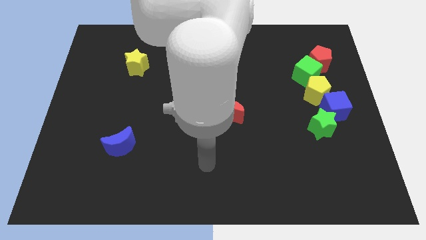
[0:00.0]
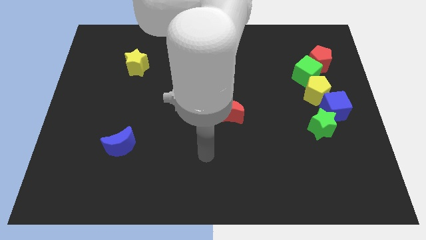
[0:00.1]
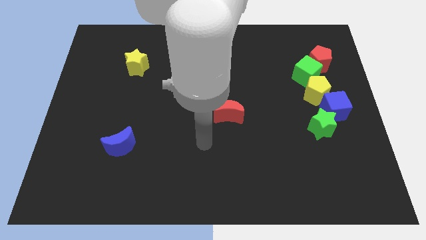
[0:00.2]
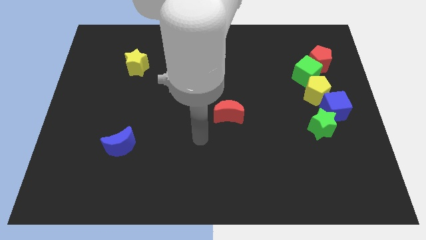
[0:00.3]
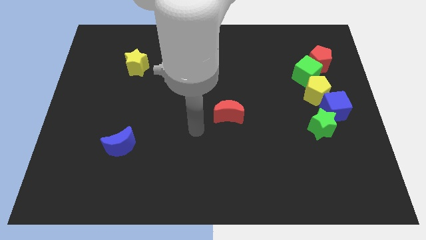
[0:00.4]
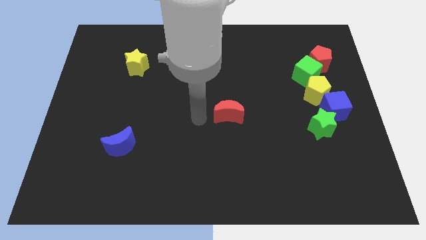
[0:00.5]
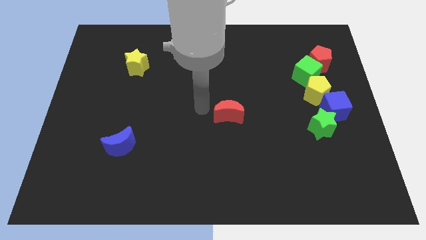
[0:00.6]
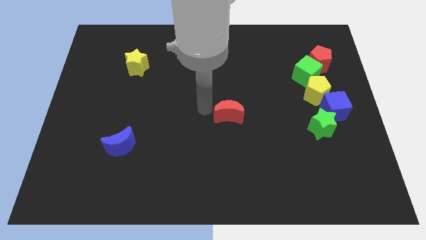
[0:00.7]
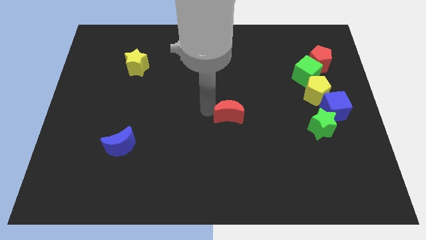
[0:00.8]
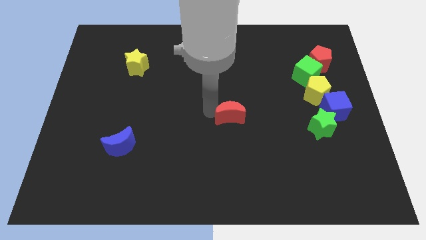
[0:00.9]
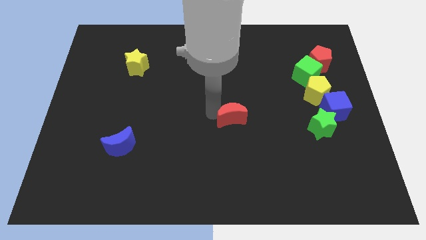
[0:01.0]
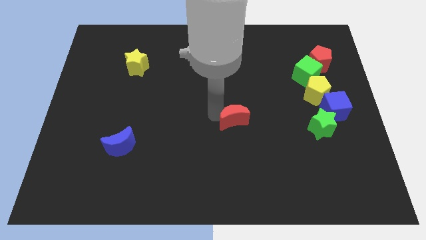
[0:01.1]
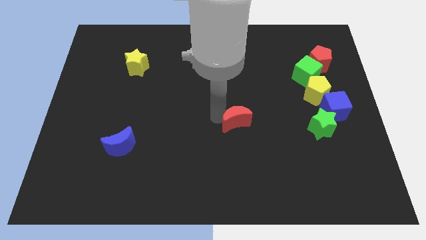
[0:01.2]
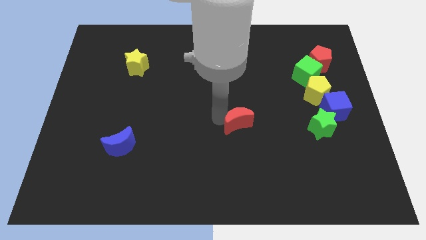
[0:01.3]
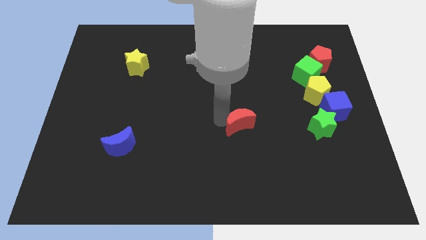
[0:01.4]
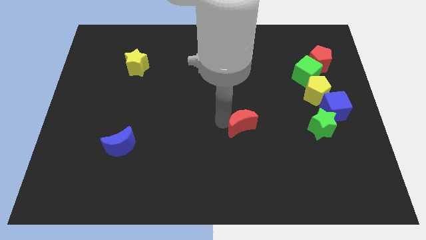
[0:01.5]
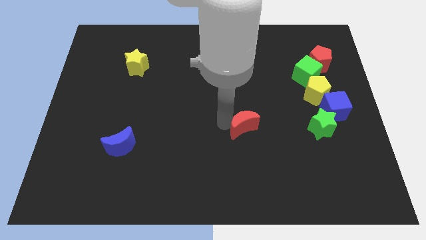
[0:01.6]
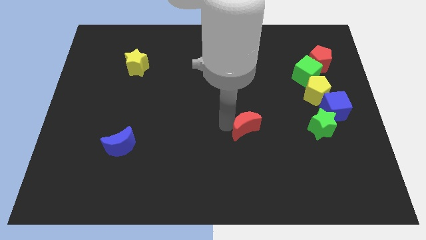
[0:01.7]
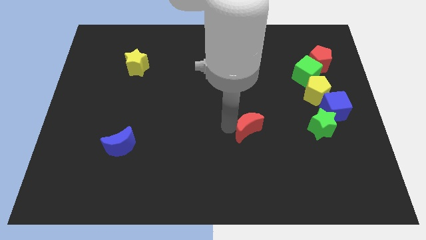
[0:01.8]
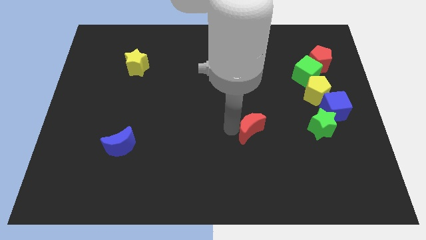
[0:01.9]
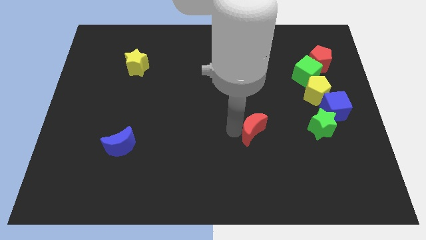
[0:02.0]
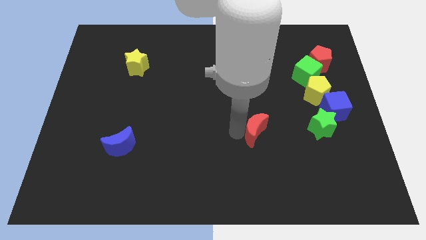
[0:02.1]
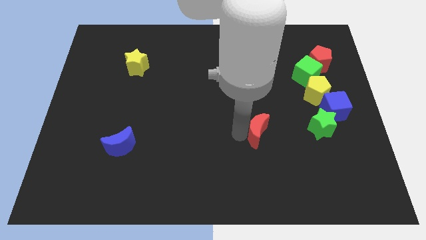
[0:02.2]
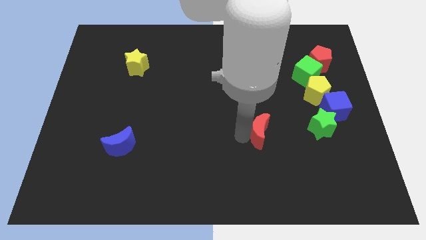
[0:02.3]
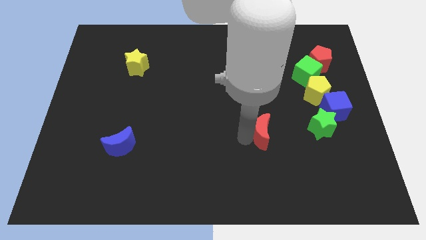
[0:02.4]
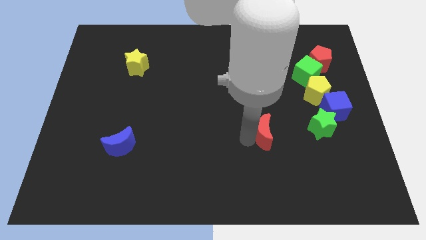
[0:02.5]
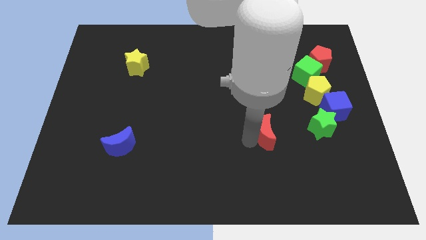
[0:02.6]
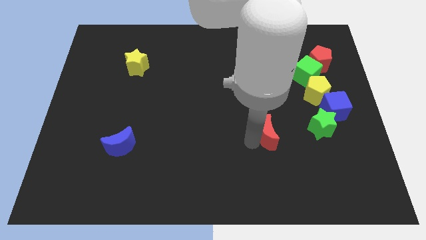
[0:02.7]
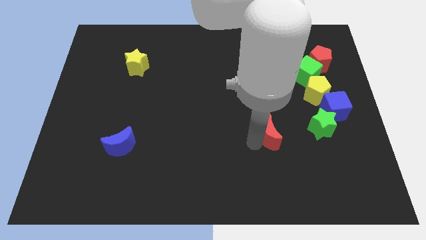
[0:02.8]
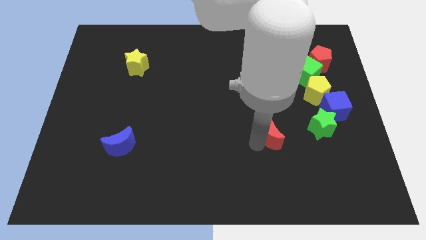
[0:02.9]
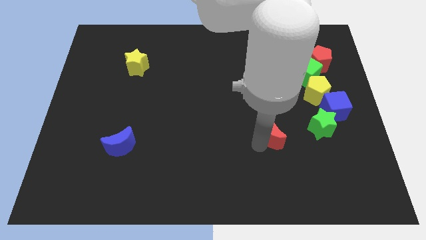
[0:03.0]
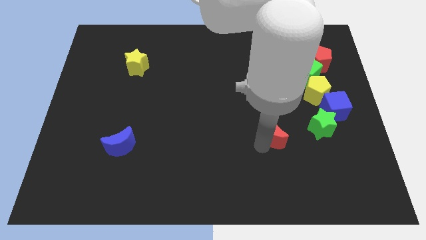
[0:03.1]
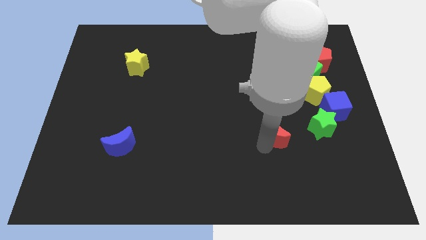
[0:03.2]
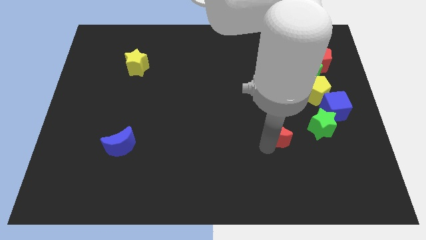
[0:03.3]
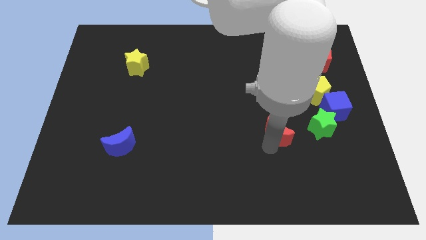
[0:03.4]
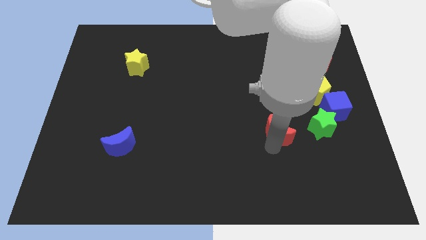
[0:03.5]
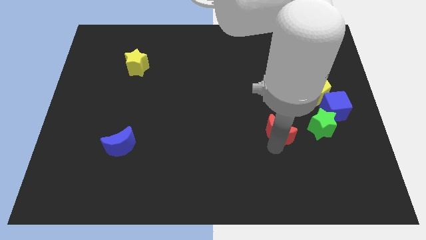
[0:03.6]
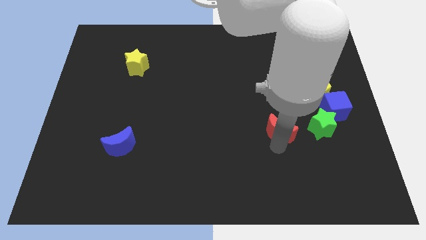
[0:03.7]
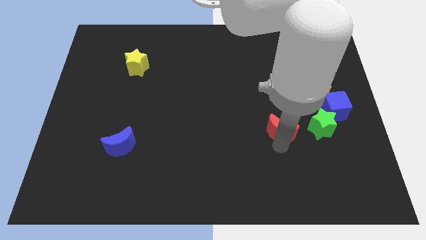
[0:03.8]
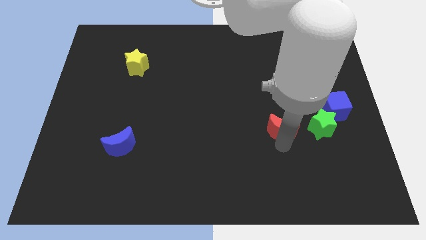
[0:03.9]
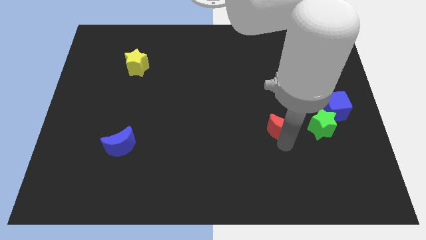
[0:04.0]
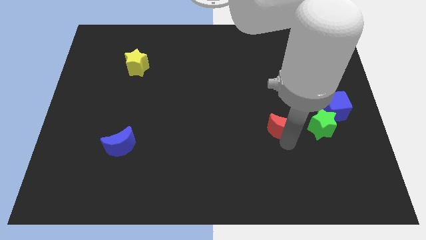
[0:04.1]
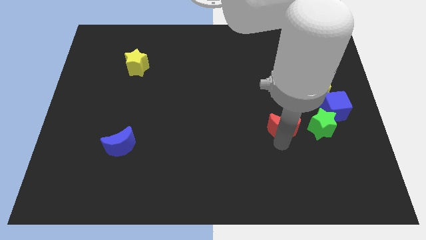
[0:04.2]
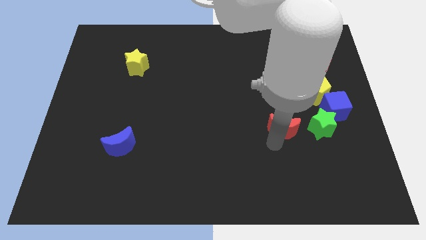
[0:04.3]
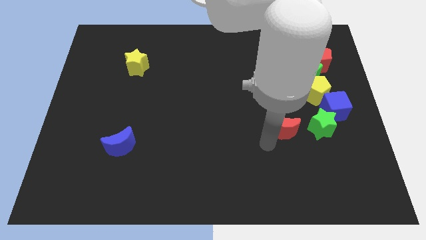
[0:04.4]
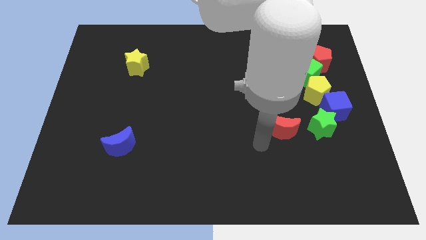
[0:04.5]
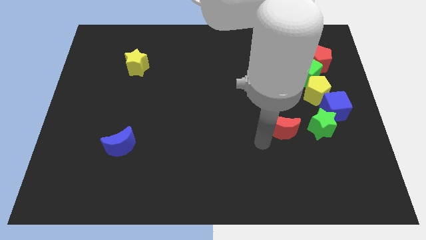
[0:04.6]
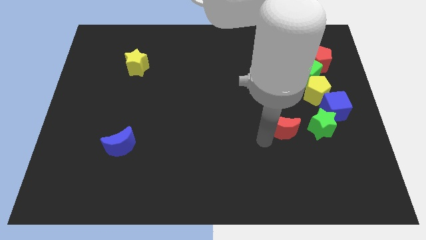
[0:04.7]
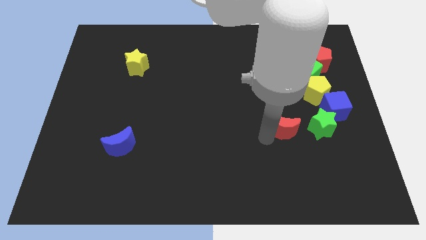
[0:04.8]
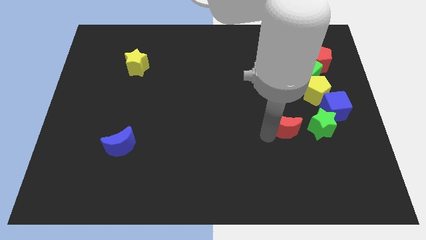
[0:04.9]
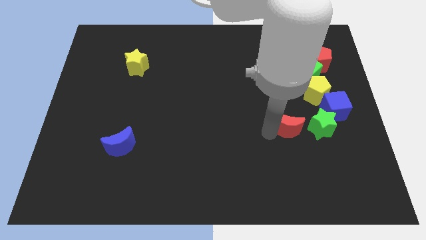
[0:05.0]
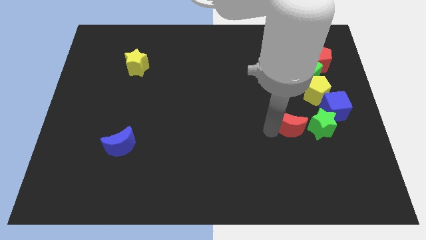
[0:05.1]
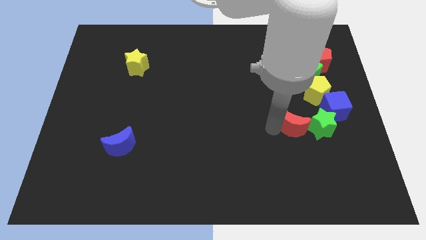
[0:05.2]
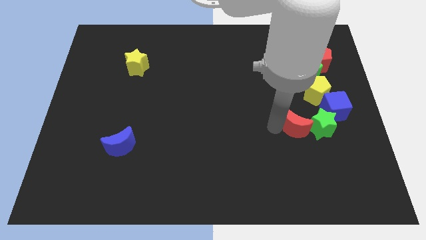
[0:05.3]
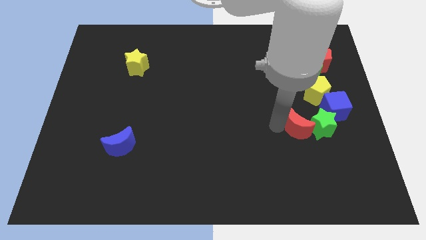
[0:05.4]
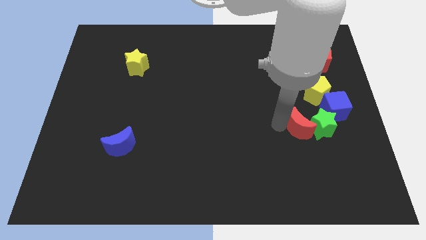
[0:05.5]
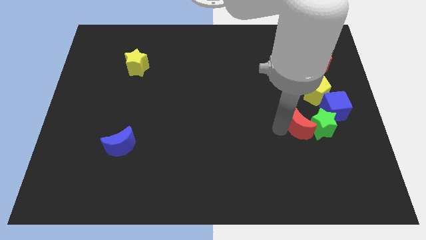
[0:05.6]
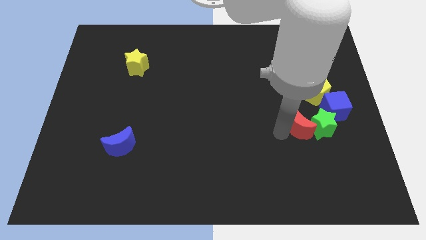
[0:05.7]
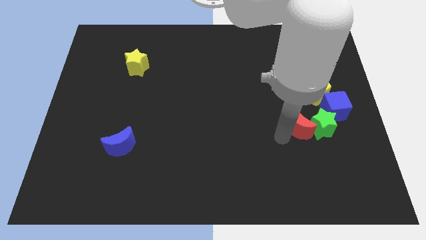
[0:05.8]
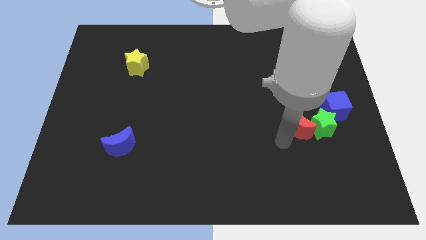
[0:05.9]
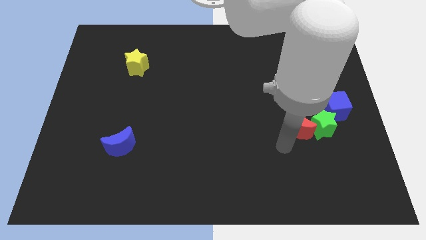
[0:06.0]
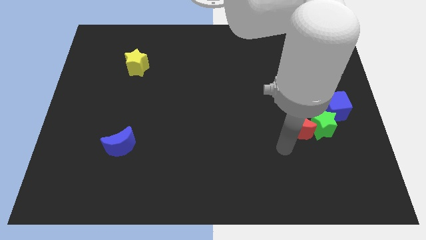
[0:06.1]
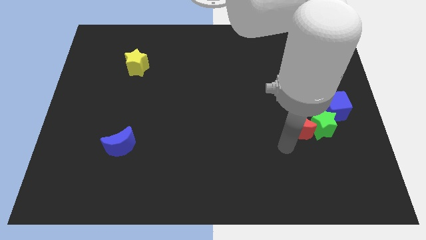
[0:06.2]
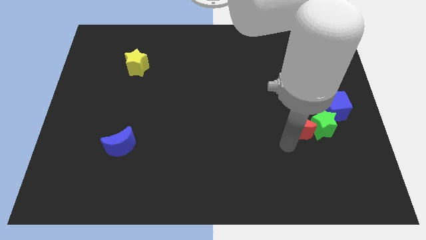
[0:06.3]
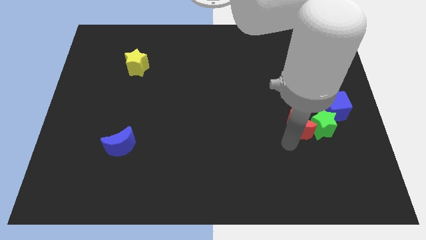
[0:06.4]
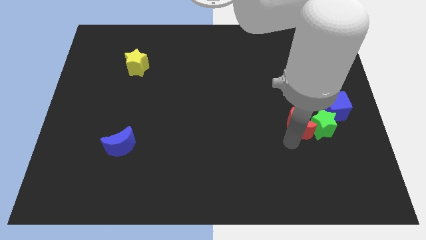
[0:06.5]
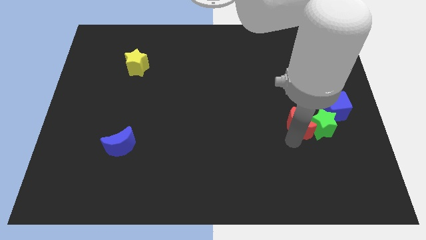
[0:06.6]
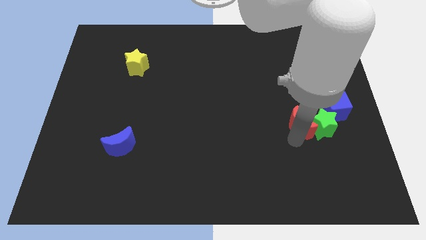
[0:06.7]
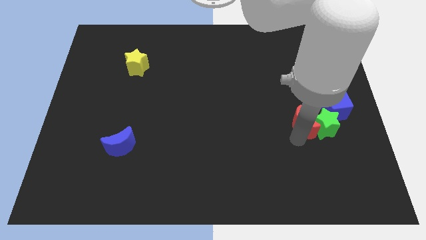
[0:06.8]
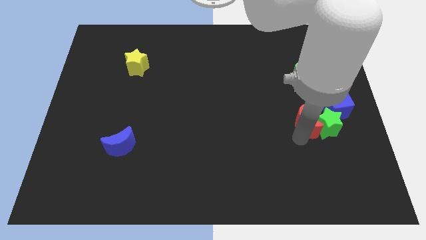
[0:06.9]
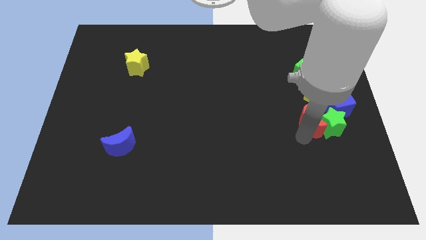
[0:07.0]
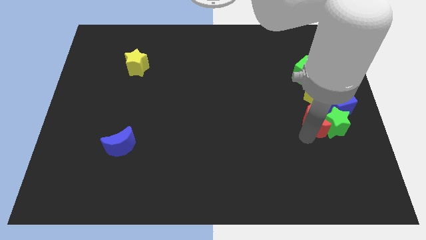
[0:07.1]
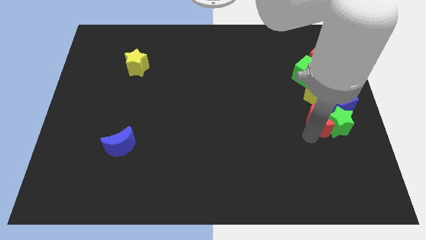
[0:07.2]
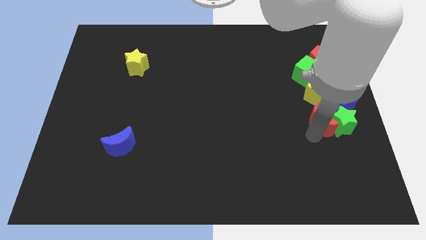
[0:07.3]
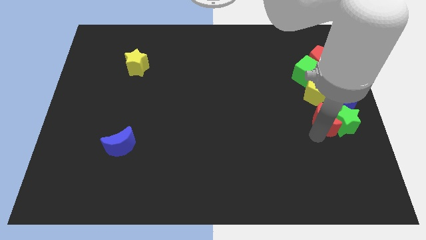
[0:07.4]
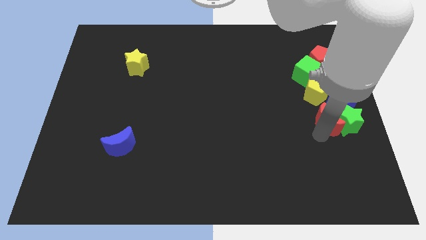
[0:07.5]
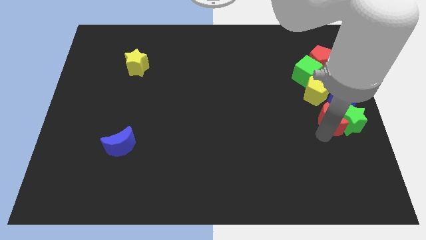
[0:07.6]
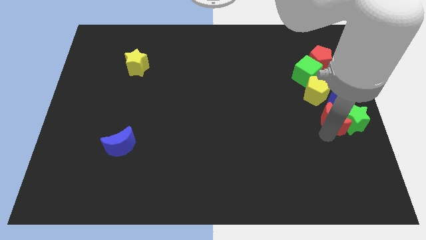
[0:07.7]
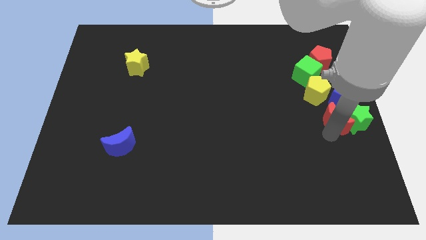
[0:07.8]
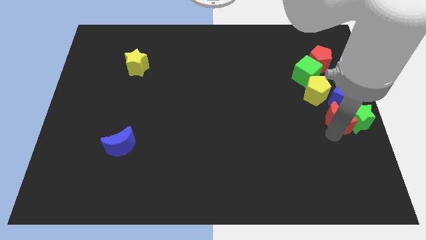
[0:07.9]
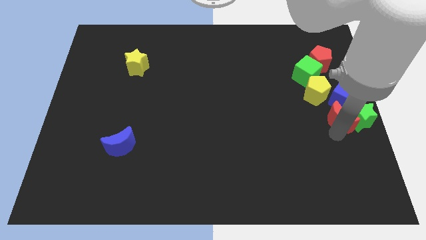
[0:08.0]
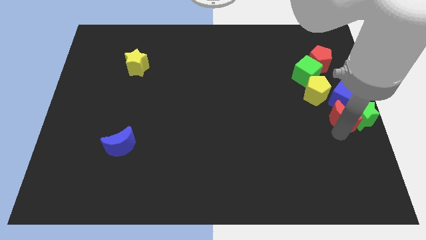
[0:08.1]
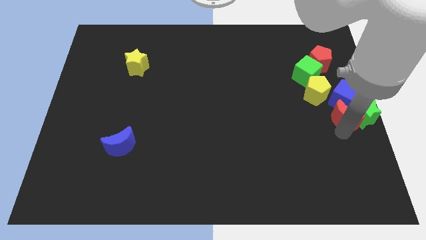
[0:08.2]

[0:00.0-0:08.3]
put the red moon towards the blue cube
